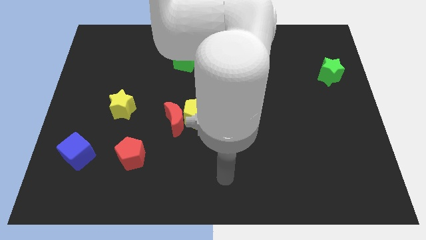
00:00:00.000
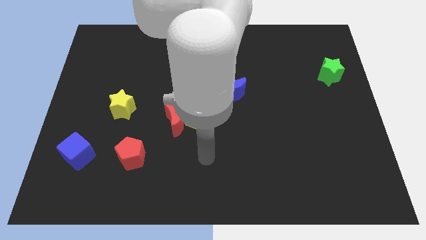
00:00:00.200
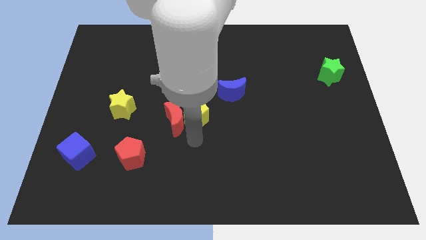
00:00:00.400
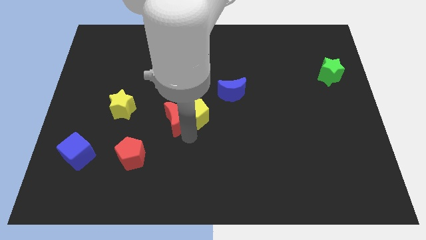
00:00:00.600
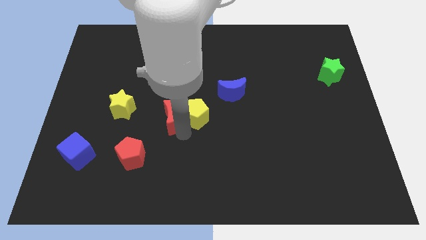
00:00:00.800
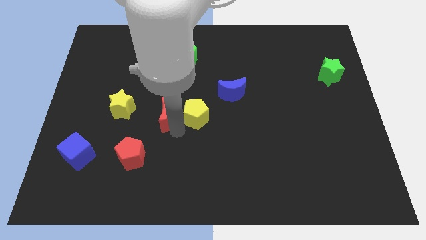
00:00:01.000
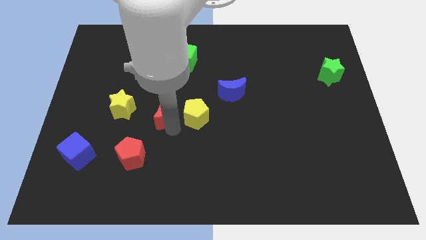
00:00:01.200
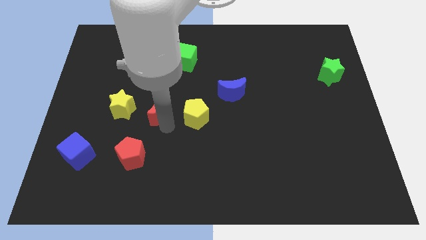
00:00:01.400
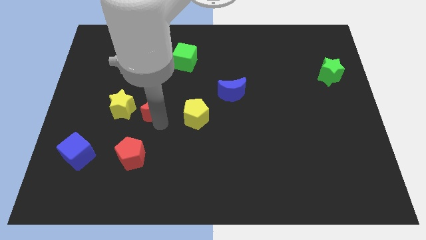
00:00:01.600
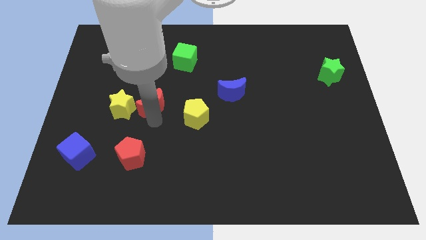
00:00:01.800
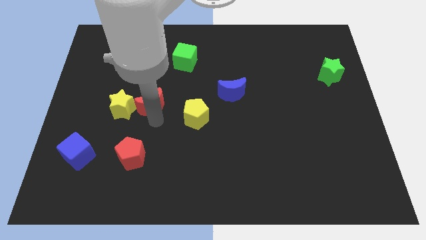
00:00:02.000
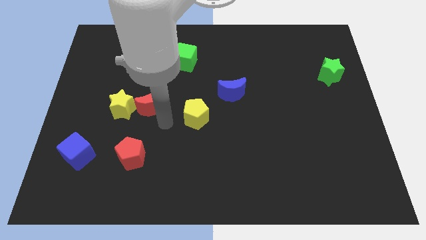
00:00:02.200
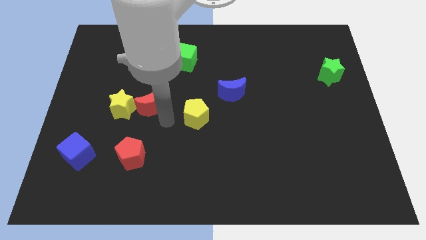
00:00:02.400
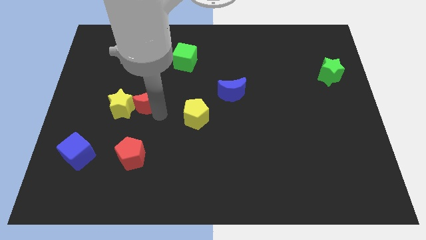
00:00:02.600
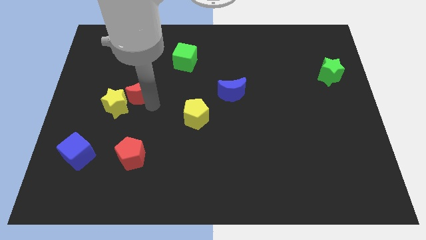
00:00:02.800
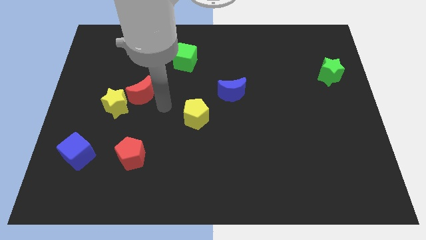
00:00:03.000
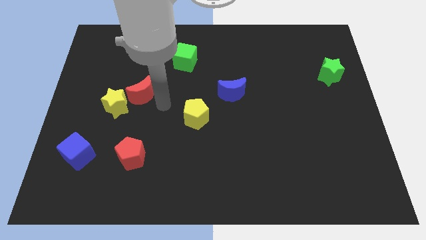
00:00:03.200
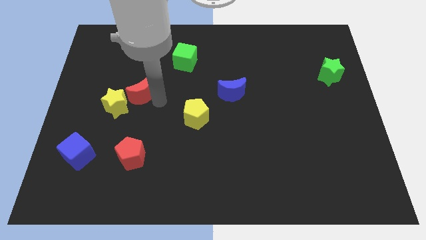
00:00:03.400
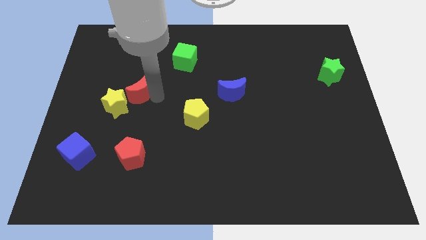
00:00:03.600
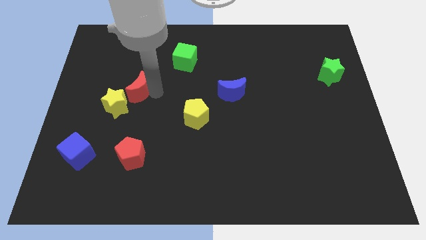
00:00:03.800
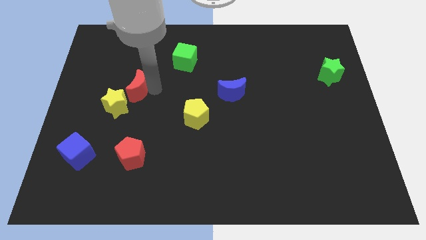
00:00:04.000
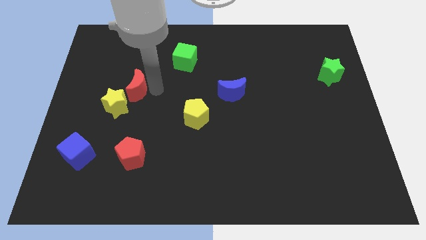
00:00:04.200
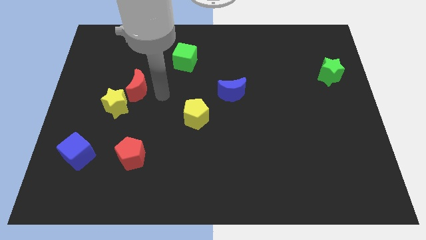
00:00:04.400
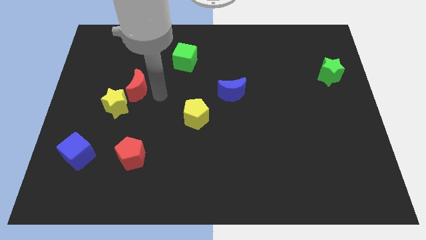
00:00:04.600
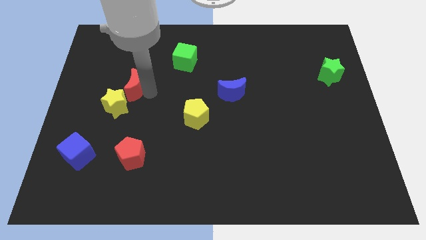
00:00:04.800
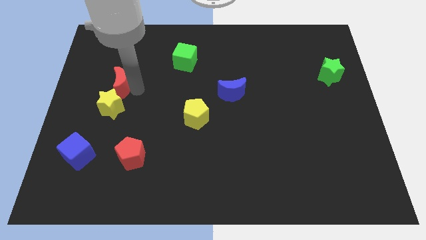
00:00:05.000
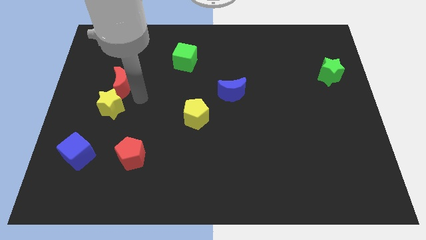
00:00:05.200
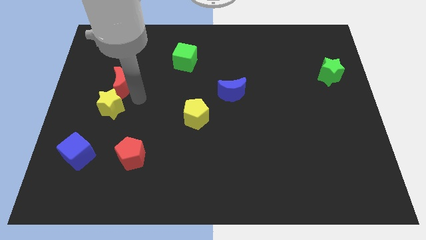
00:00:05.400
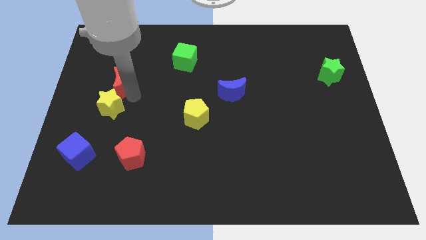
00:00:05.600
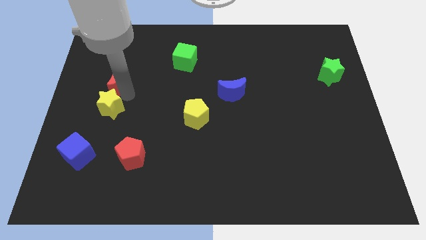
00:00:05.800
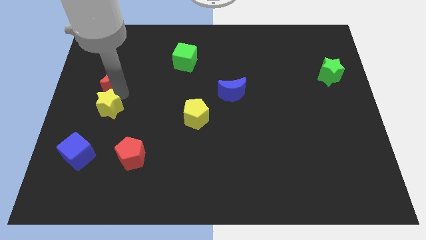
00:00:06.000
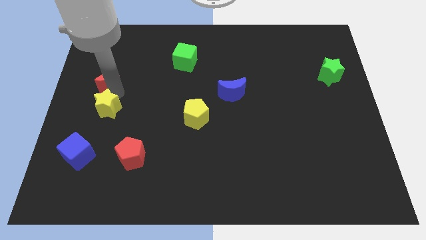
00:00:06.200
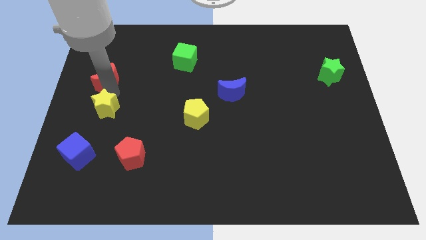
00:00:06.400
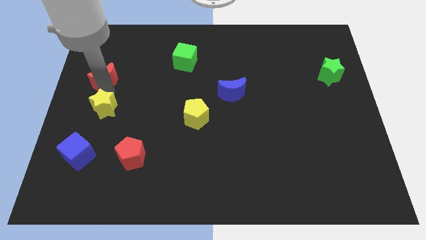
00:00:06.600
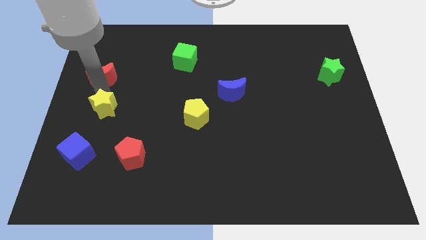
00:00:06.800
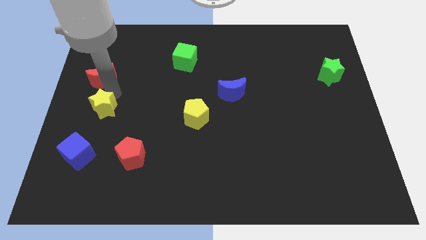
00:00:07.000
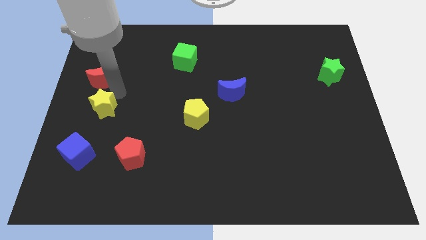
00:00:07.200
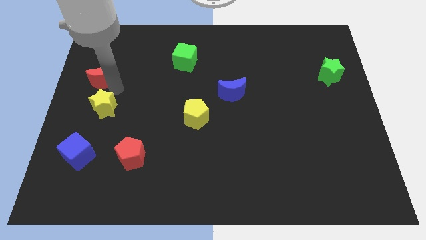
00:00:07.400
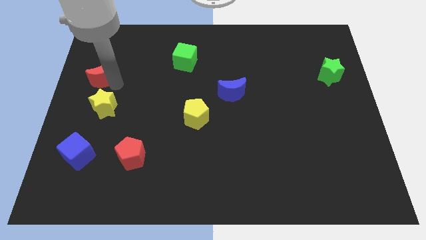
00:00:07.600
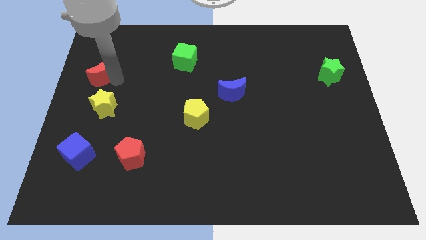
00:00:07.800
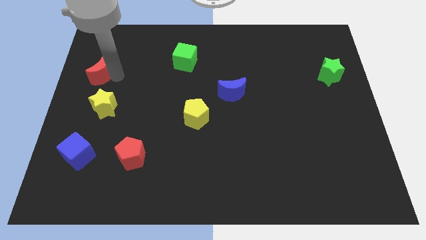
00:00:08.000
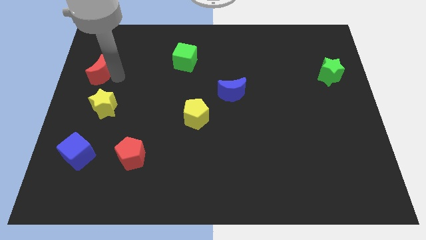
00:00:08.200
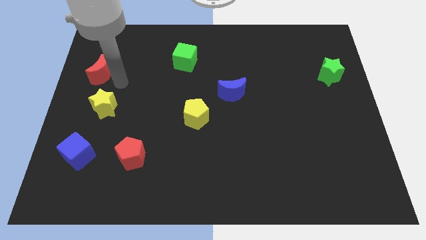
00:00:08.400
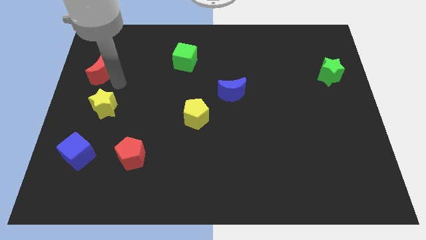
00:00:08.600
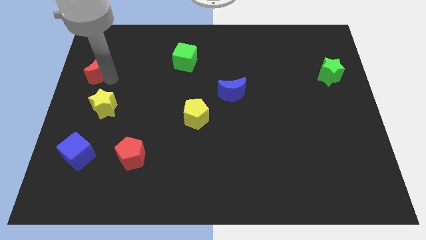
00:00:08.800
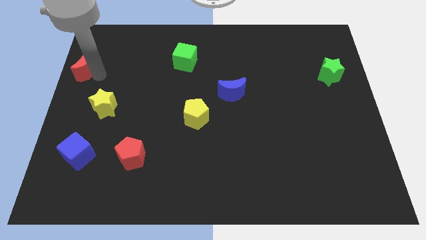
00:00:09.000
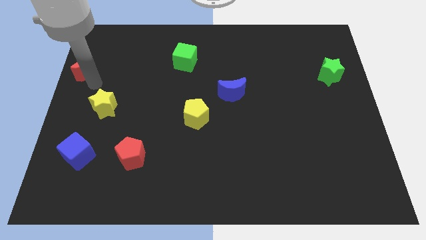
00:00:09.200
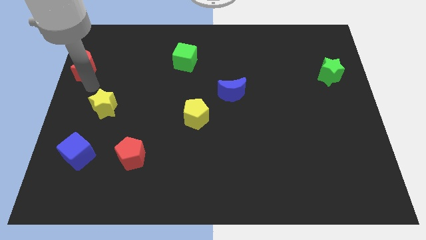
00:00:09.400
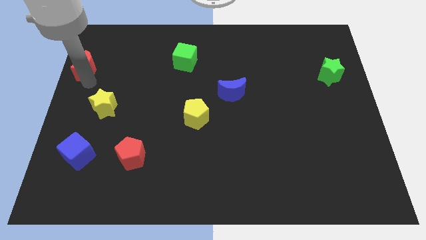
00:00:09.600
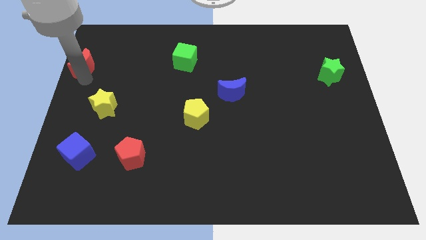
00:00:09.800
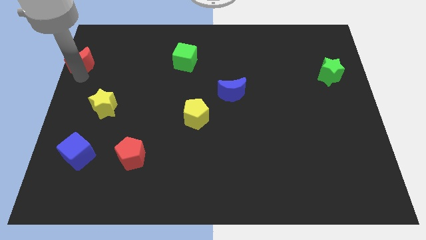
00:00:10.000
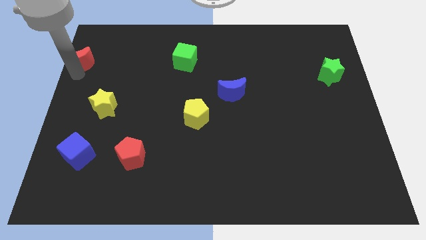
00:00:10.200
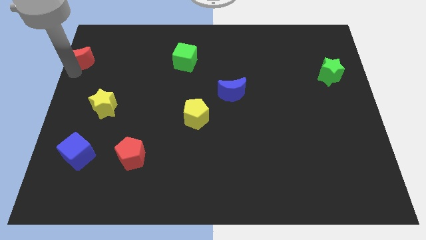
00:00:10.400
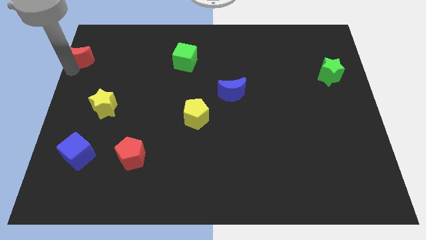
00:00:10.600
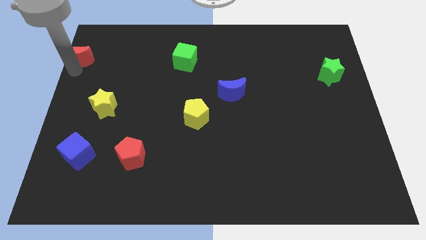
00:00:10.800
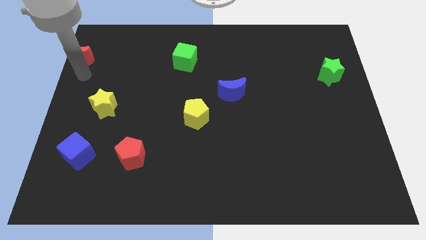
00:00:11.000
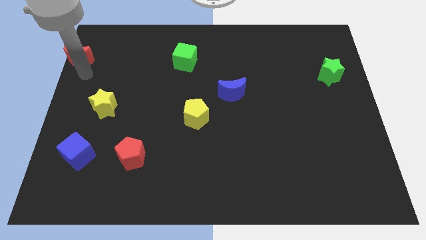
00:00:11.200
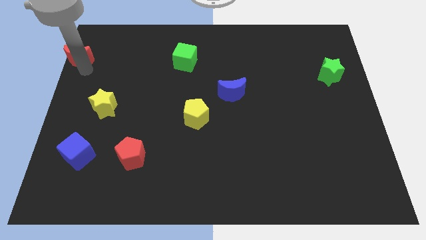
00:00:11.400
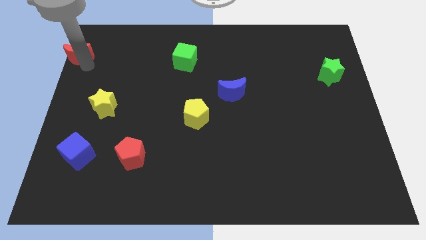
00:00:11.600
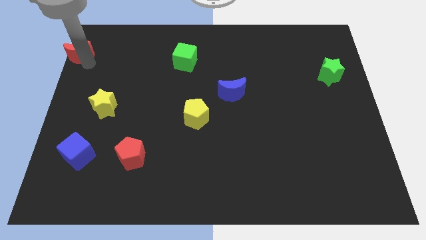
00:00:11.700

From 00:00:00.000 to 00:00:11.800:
push the red moon to the top left

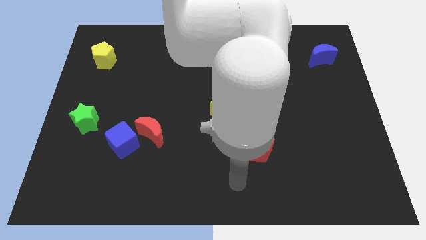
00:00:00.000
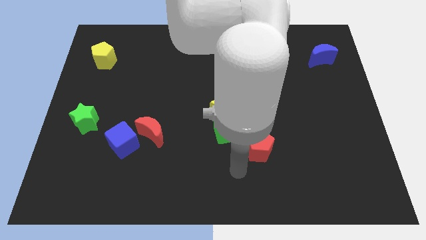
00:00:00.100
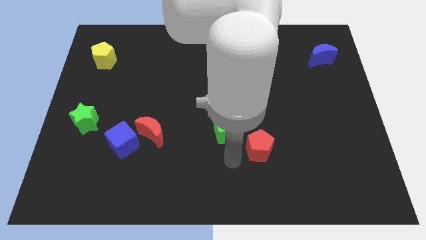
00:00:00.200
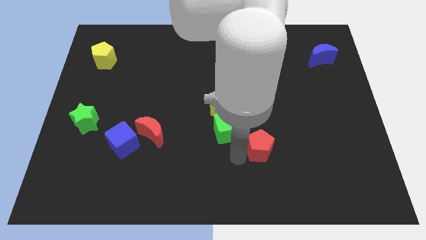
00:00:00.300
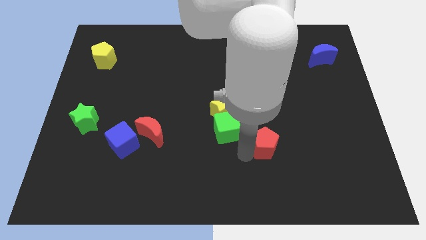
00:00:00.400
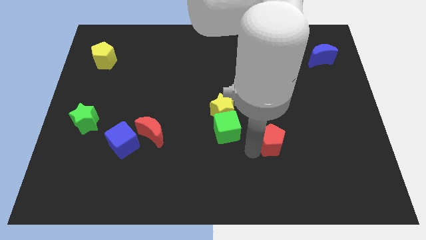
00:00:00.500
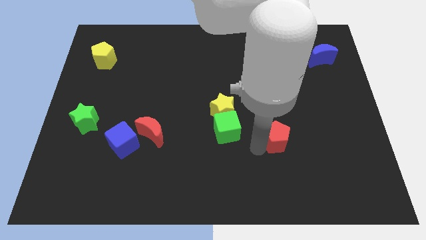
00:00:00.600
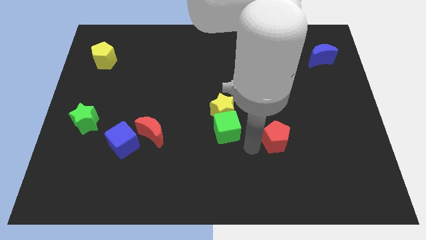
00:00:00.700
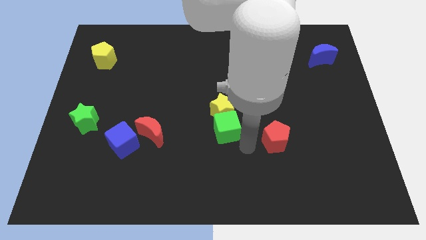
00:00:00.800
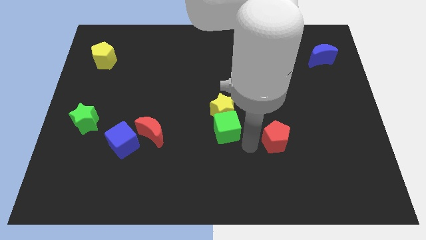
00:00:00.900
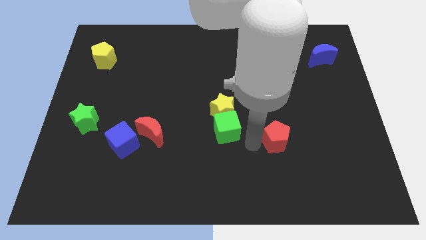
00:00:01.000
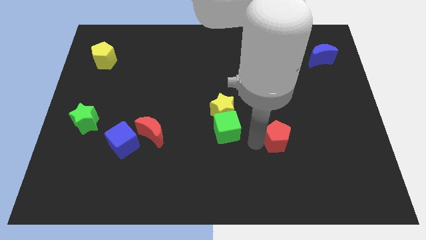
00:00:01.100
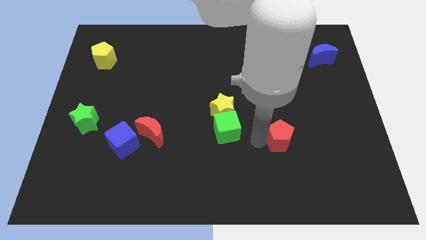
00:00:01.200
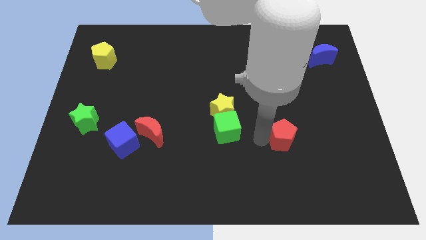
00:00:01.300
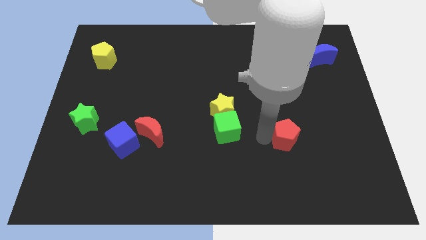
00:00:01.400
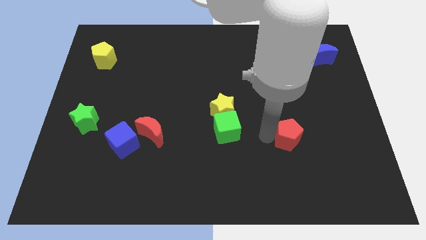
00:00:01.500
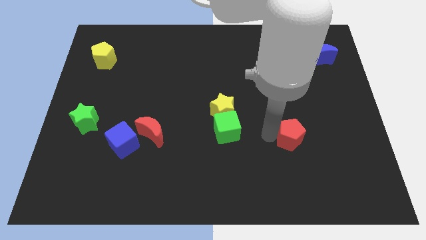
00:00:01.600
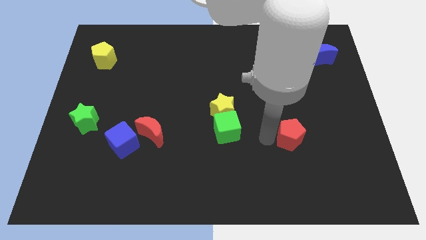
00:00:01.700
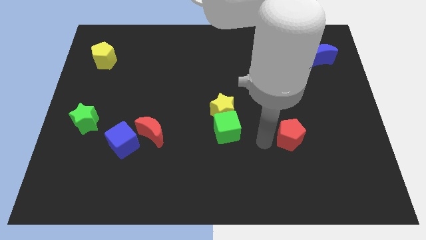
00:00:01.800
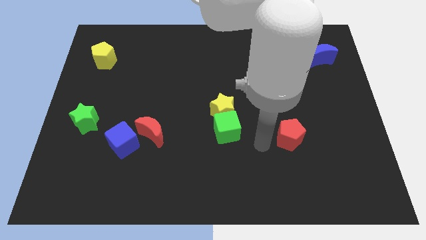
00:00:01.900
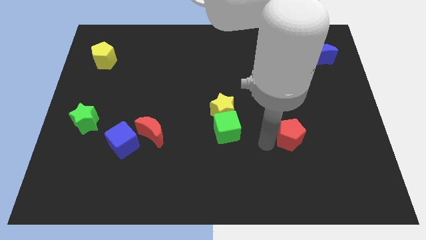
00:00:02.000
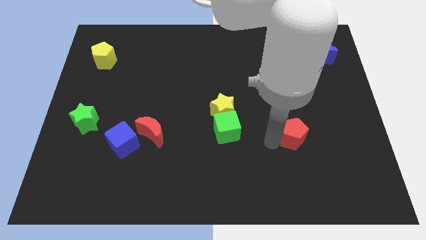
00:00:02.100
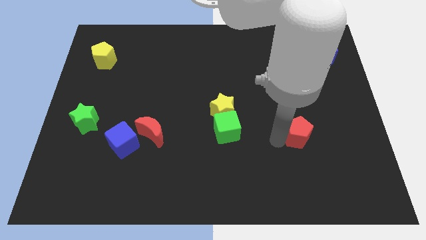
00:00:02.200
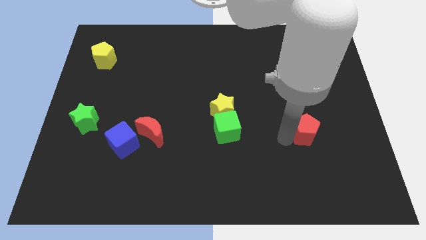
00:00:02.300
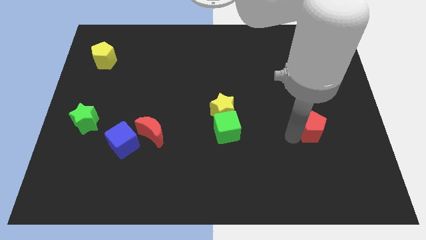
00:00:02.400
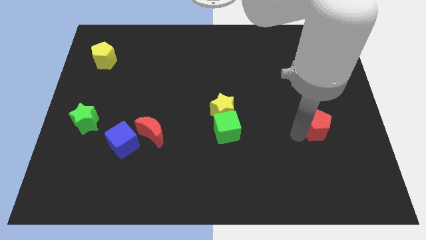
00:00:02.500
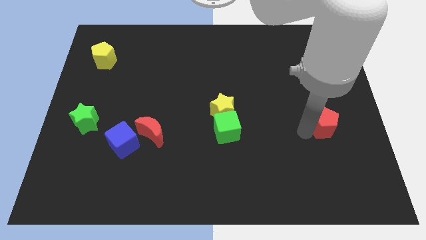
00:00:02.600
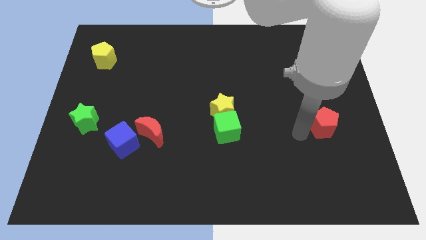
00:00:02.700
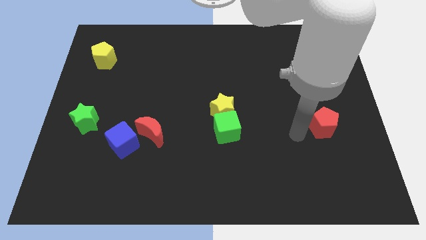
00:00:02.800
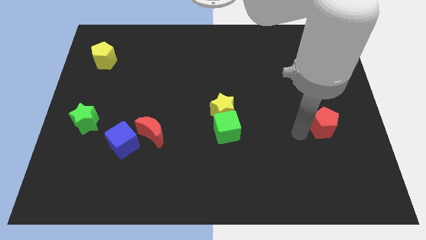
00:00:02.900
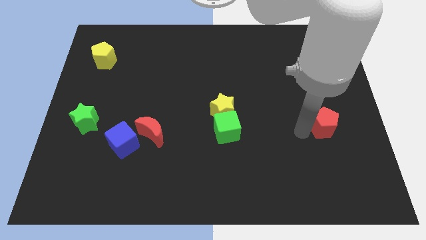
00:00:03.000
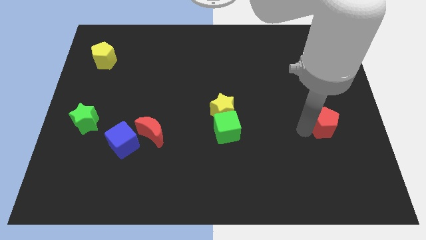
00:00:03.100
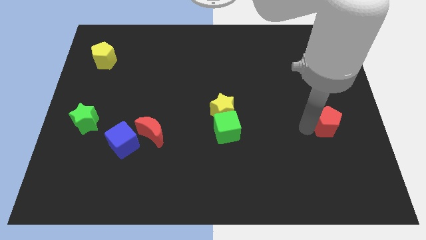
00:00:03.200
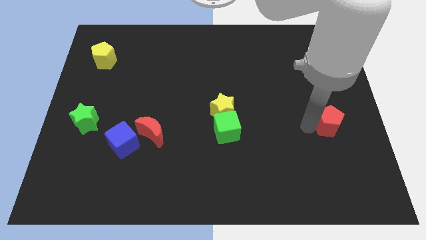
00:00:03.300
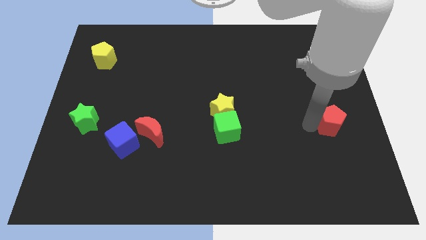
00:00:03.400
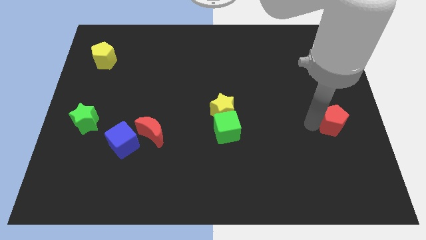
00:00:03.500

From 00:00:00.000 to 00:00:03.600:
push the red pentagon to the right side of the board
